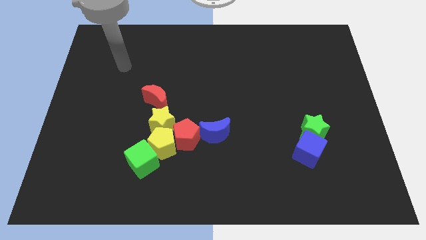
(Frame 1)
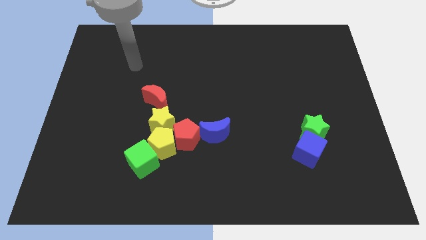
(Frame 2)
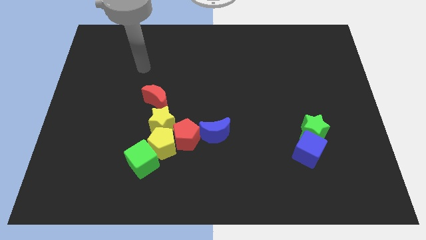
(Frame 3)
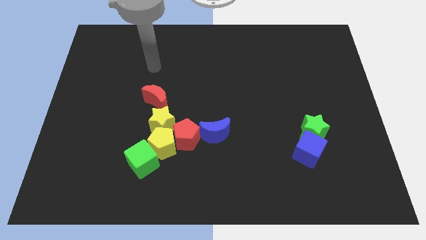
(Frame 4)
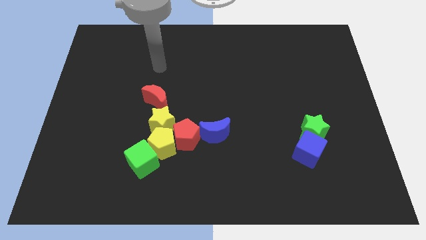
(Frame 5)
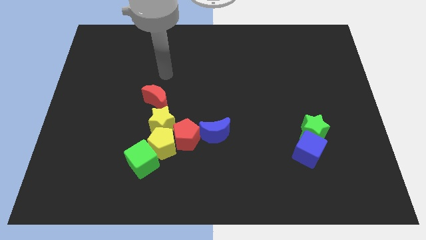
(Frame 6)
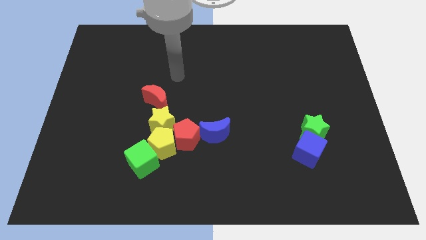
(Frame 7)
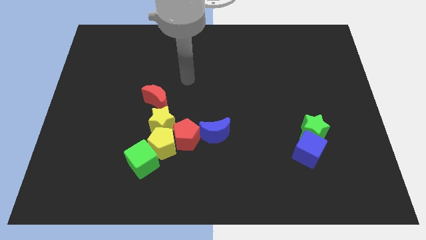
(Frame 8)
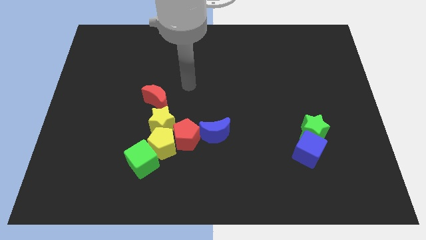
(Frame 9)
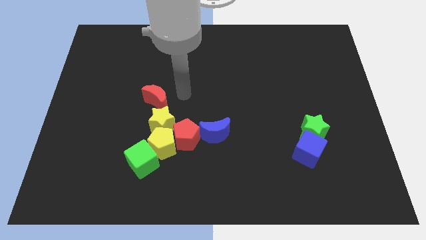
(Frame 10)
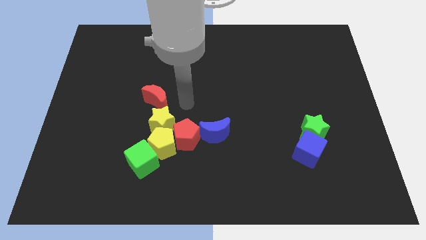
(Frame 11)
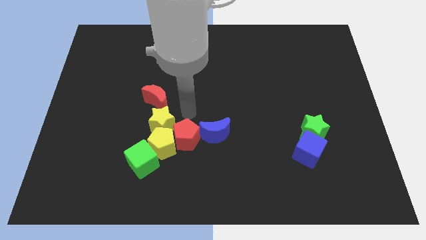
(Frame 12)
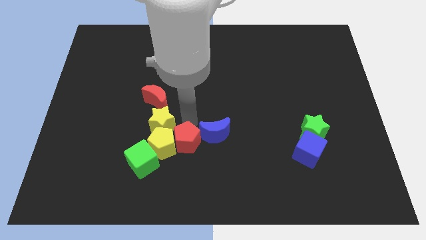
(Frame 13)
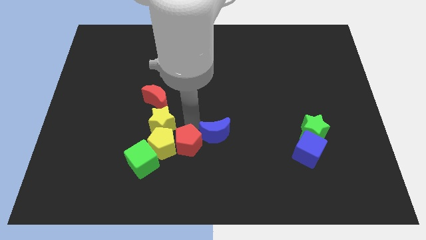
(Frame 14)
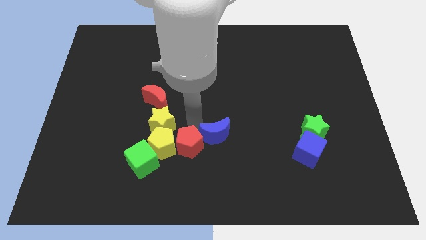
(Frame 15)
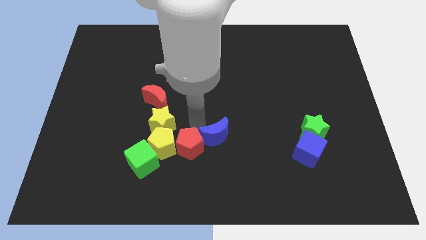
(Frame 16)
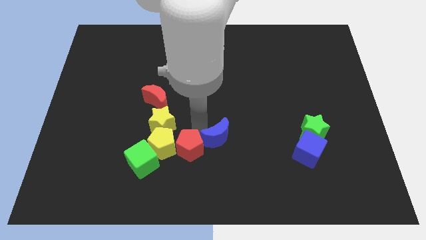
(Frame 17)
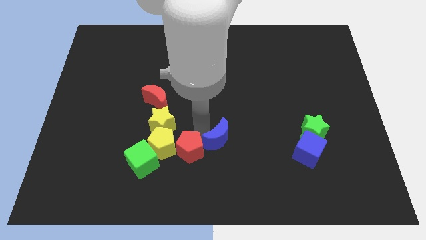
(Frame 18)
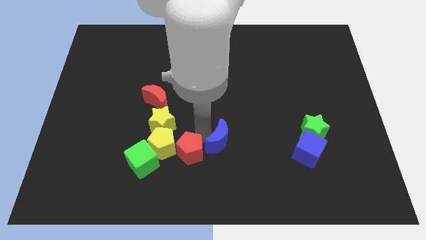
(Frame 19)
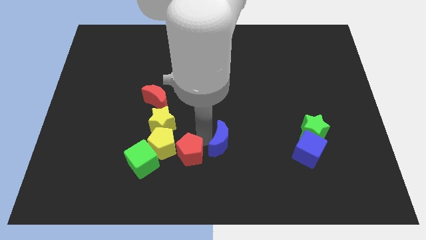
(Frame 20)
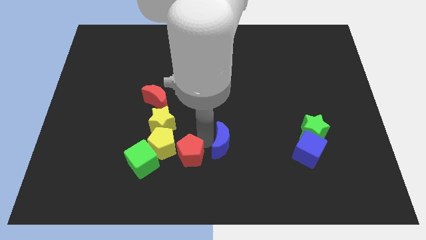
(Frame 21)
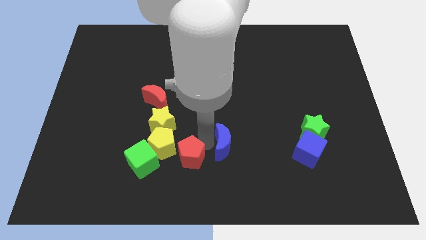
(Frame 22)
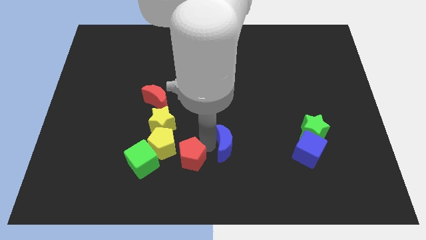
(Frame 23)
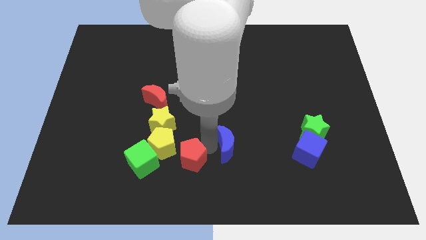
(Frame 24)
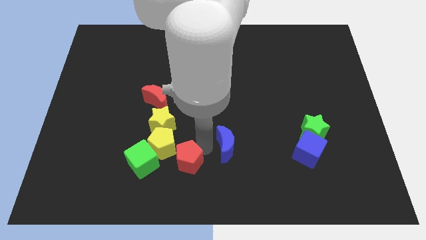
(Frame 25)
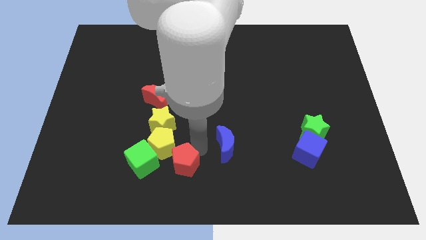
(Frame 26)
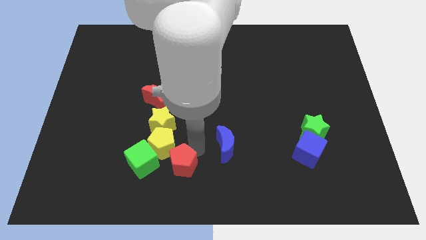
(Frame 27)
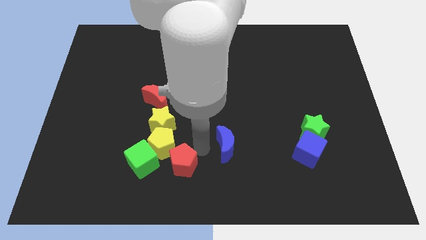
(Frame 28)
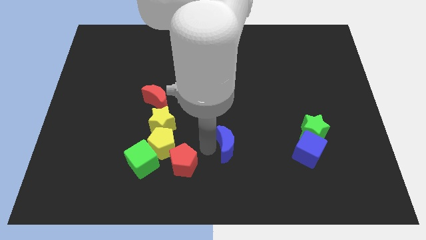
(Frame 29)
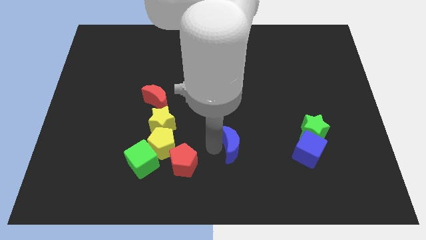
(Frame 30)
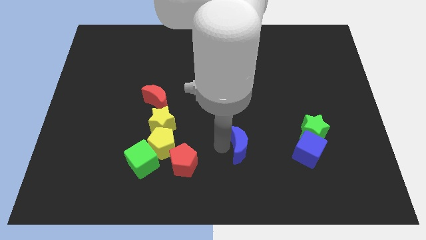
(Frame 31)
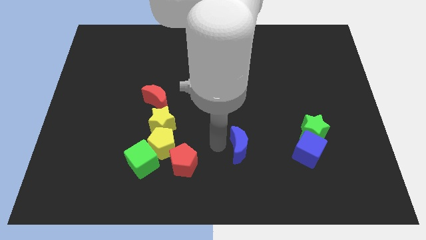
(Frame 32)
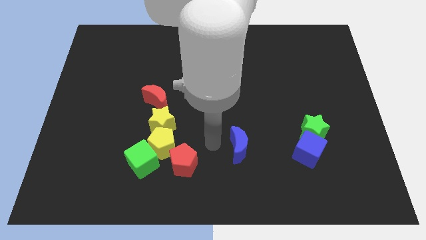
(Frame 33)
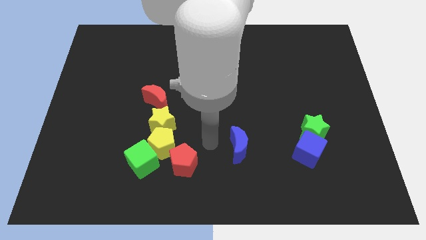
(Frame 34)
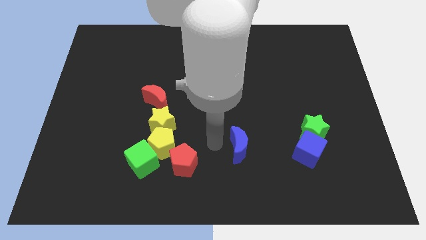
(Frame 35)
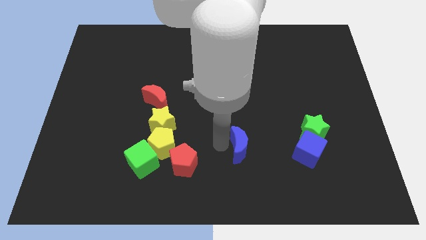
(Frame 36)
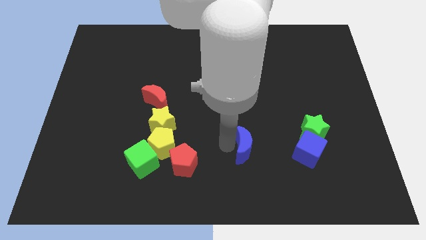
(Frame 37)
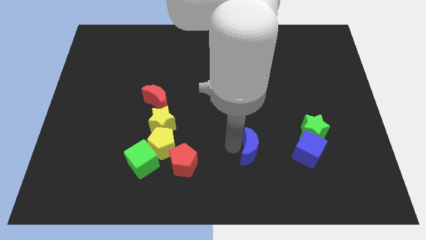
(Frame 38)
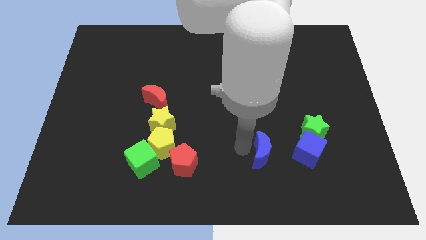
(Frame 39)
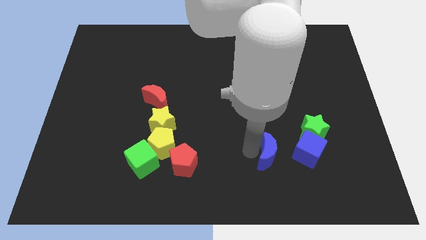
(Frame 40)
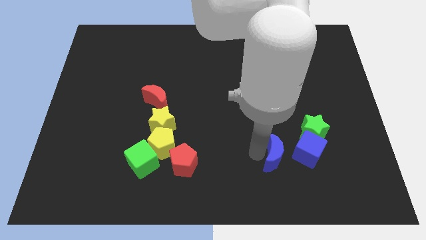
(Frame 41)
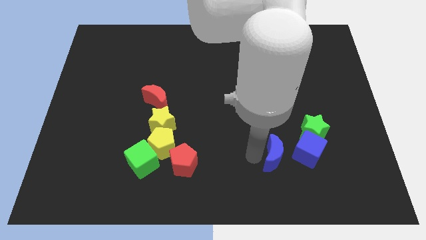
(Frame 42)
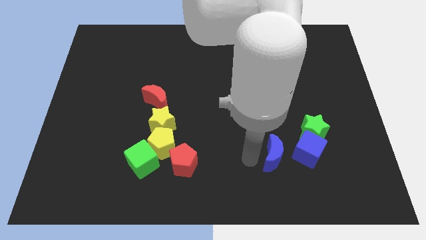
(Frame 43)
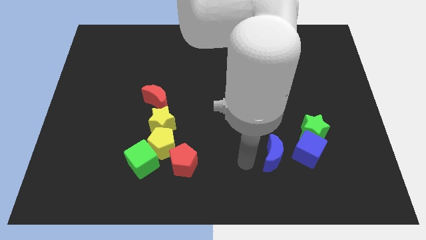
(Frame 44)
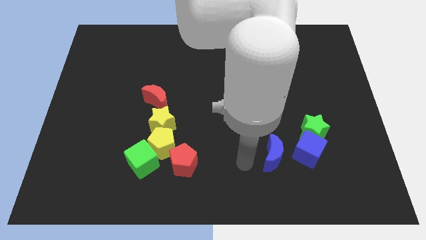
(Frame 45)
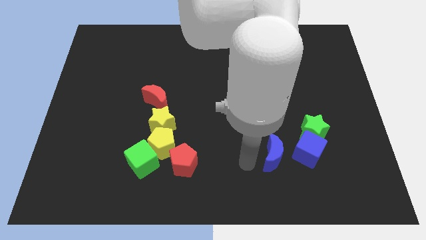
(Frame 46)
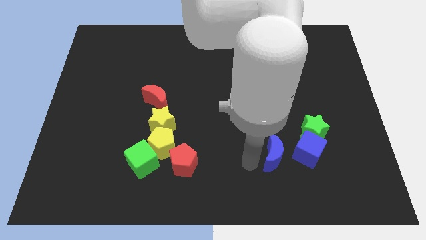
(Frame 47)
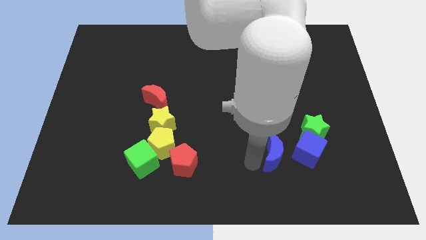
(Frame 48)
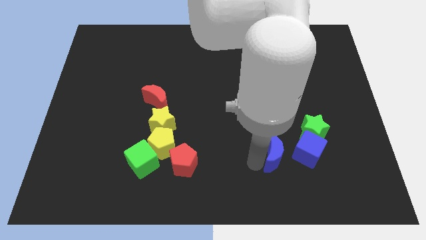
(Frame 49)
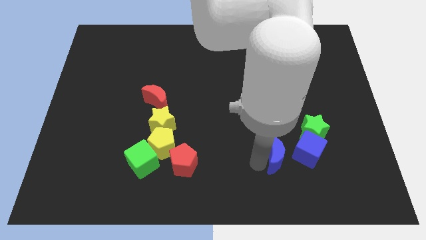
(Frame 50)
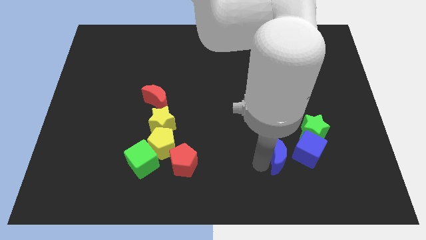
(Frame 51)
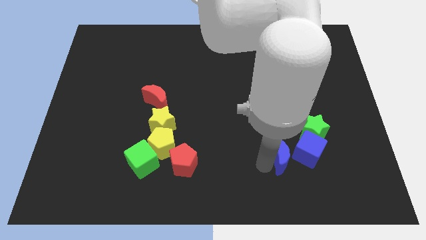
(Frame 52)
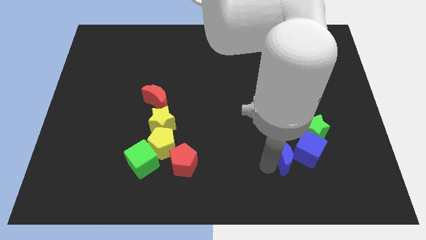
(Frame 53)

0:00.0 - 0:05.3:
slide the blue moon close to the blue cube

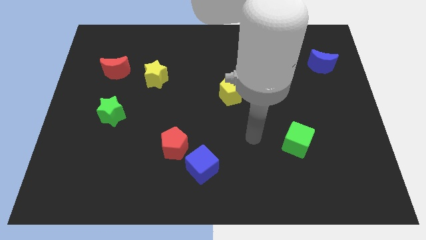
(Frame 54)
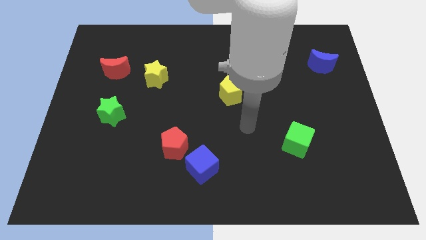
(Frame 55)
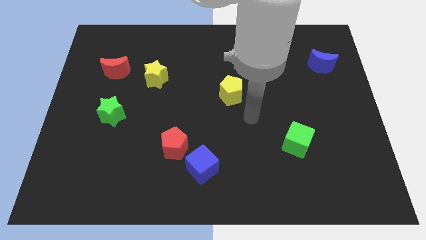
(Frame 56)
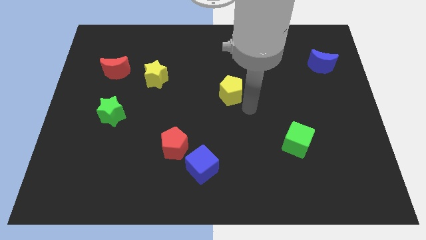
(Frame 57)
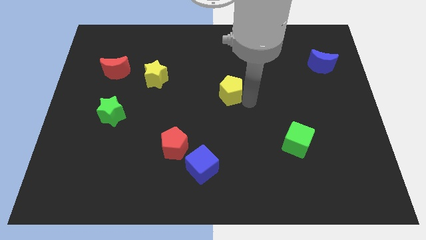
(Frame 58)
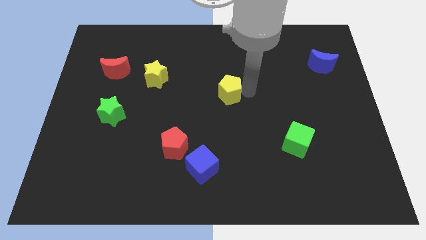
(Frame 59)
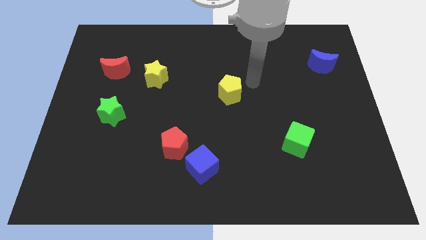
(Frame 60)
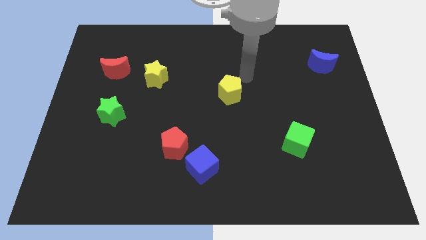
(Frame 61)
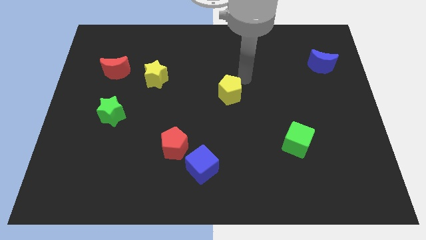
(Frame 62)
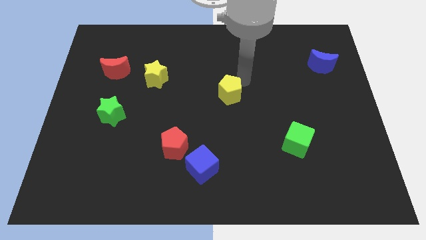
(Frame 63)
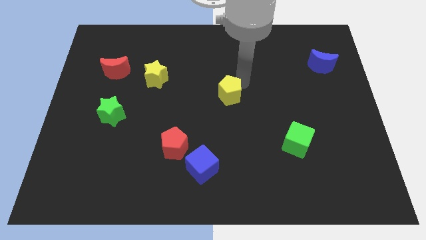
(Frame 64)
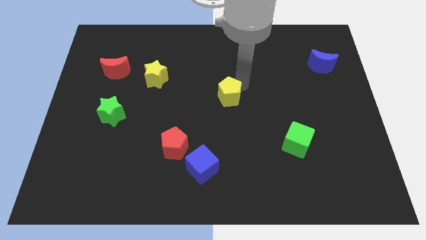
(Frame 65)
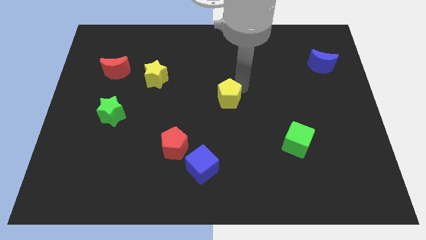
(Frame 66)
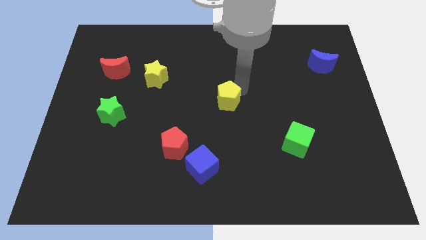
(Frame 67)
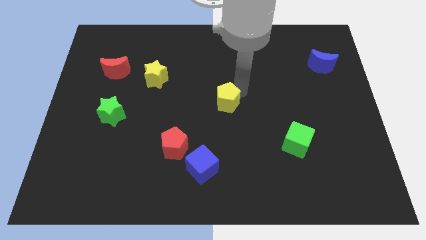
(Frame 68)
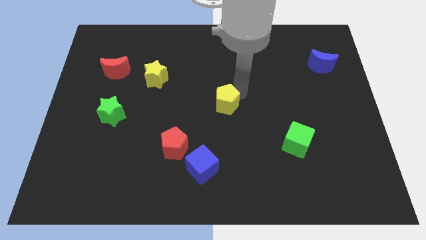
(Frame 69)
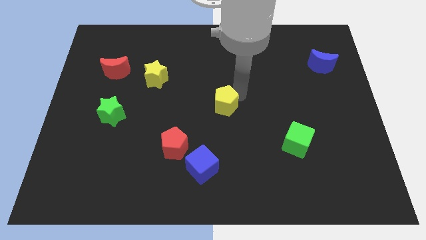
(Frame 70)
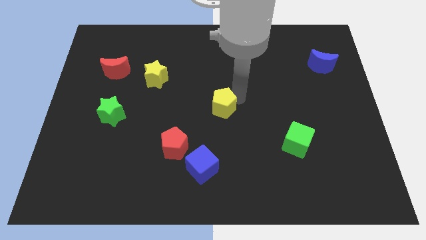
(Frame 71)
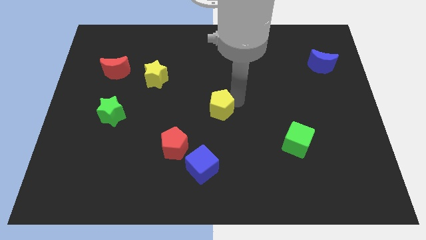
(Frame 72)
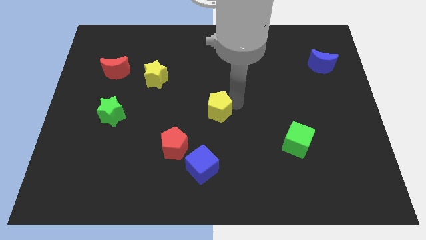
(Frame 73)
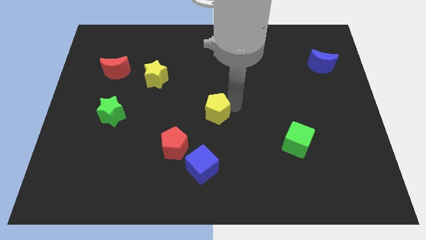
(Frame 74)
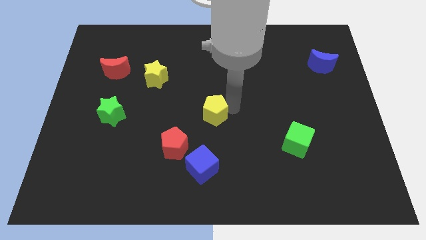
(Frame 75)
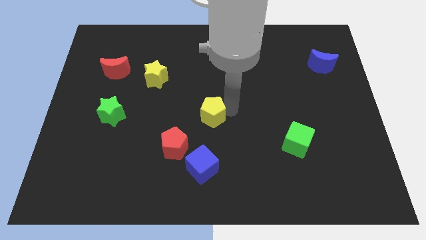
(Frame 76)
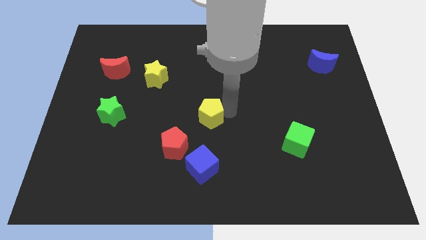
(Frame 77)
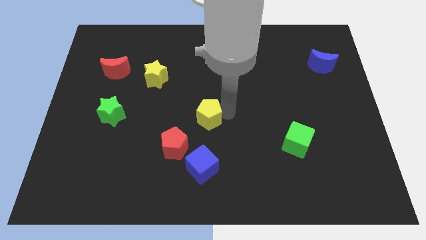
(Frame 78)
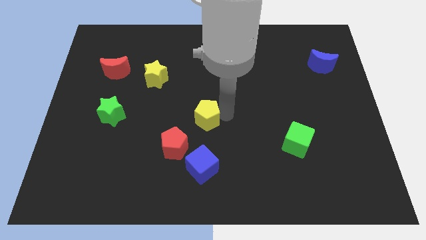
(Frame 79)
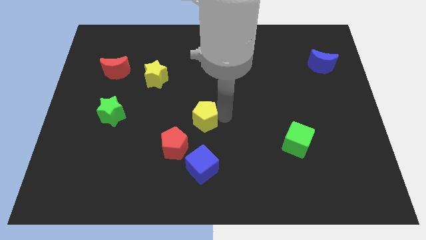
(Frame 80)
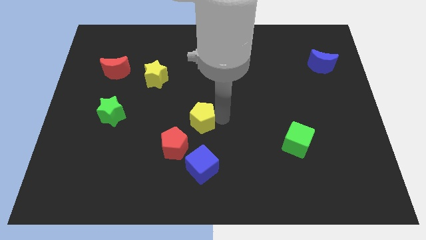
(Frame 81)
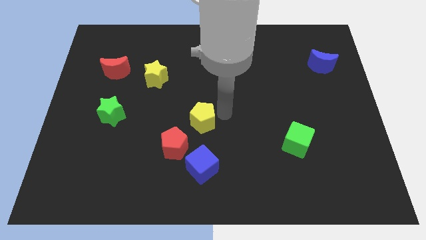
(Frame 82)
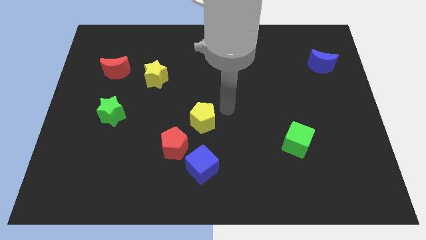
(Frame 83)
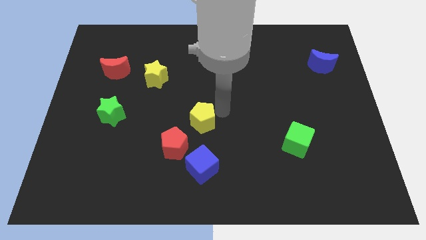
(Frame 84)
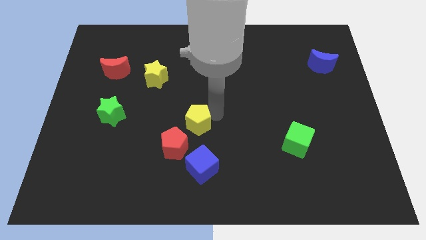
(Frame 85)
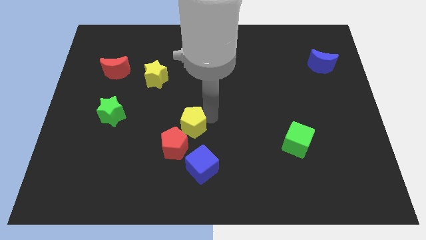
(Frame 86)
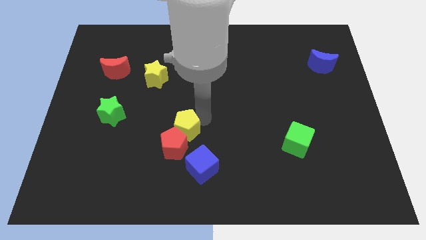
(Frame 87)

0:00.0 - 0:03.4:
slide the yellow pentagon towards the red pentagon
